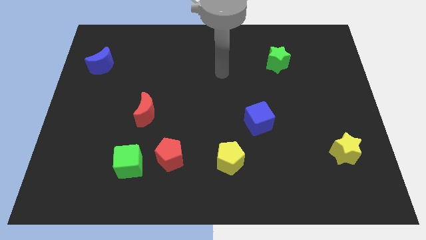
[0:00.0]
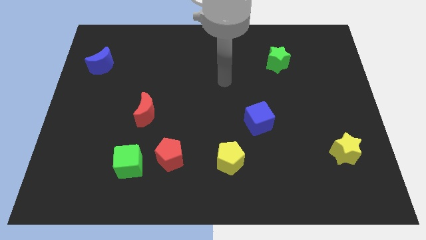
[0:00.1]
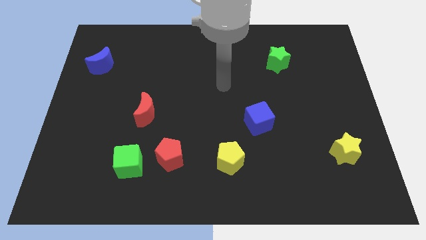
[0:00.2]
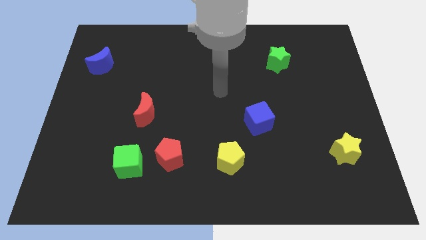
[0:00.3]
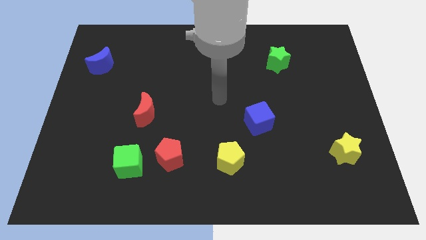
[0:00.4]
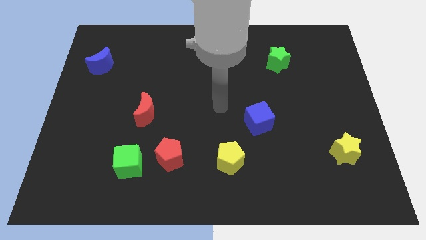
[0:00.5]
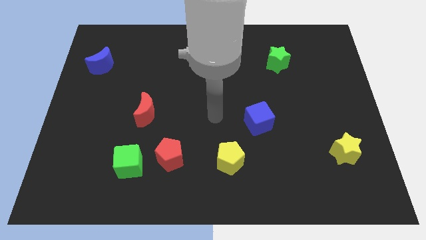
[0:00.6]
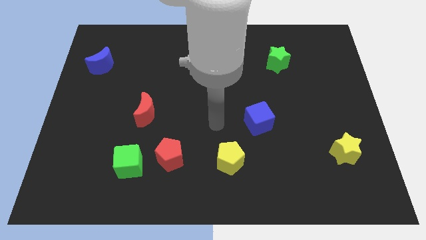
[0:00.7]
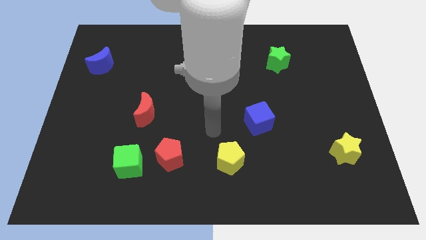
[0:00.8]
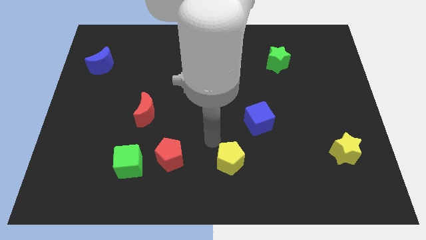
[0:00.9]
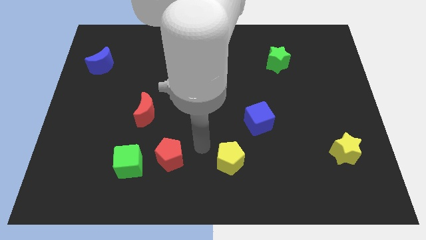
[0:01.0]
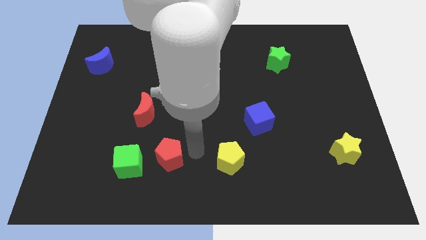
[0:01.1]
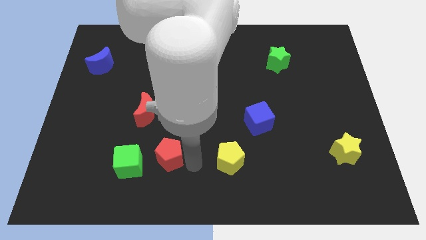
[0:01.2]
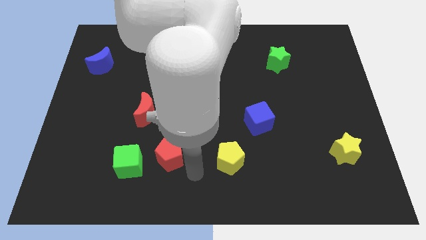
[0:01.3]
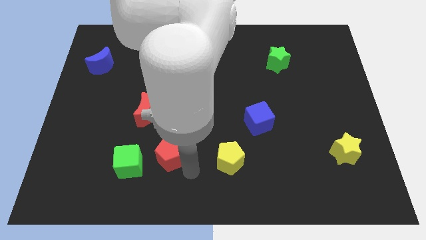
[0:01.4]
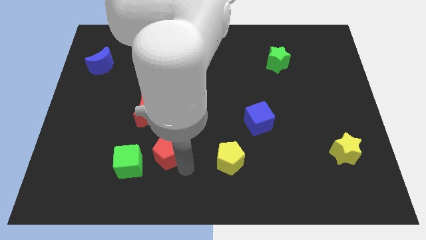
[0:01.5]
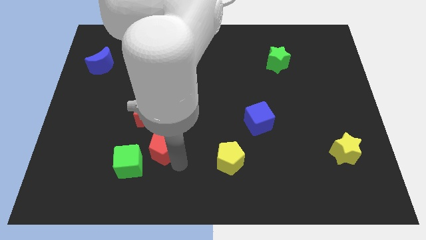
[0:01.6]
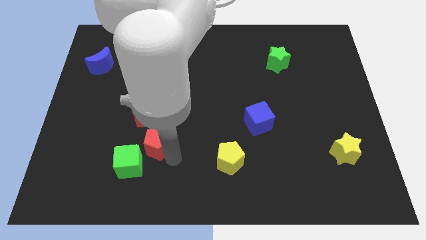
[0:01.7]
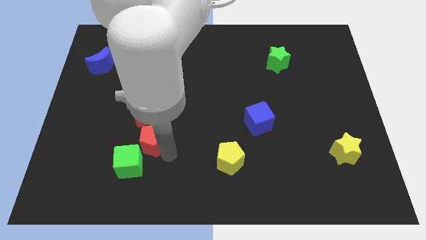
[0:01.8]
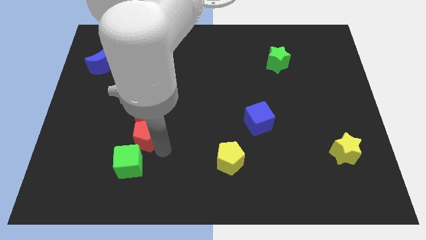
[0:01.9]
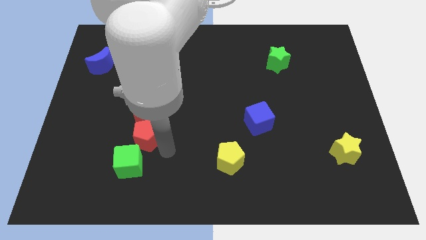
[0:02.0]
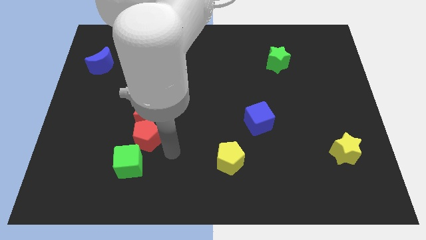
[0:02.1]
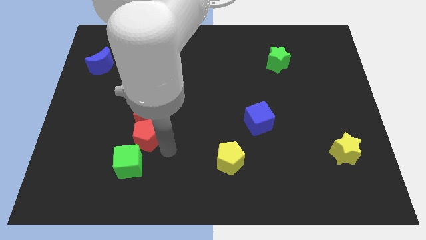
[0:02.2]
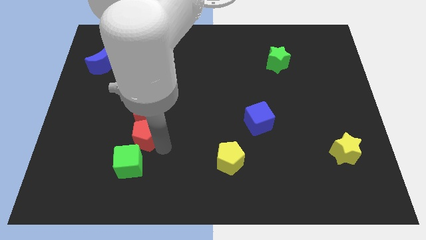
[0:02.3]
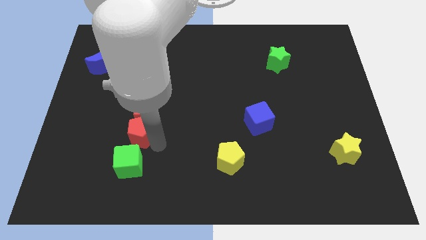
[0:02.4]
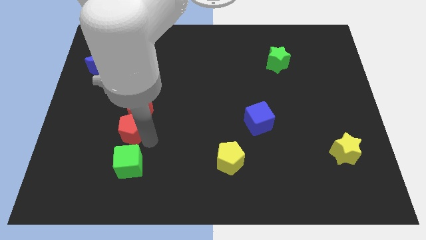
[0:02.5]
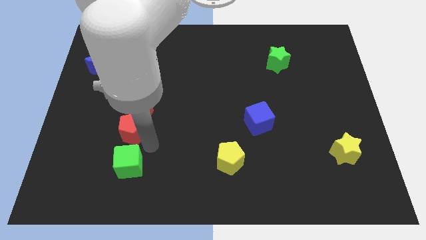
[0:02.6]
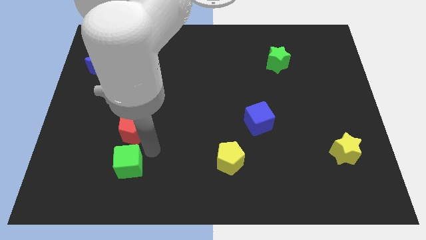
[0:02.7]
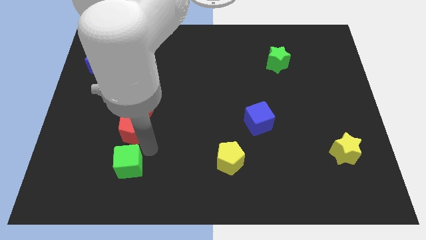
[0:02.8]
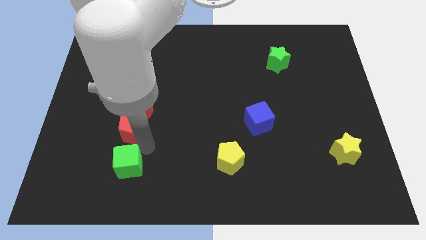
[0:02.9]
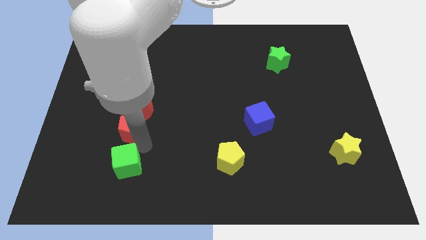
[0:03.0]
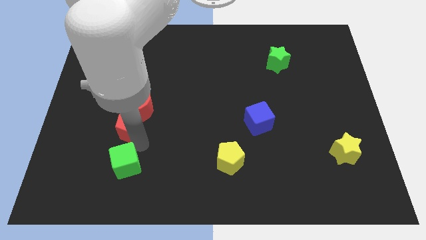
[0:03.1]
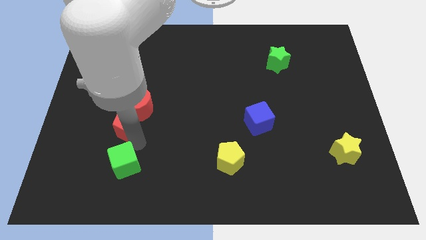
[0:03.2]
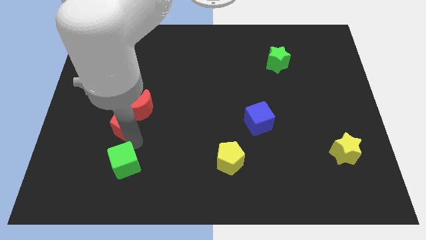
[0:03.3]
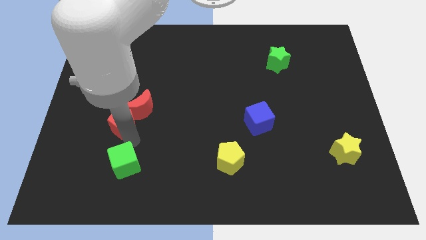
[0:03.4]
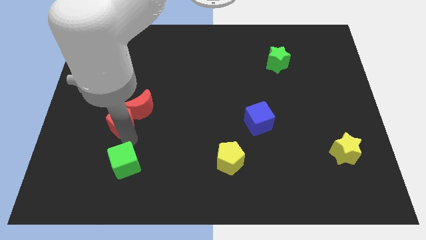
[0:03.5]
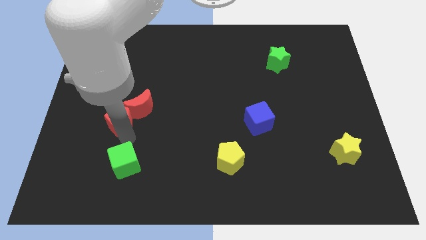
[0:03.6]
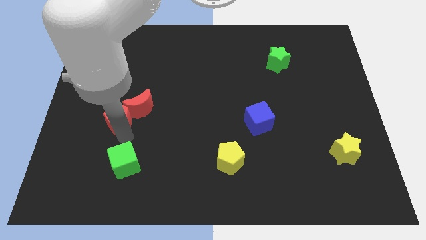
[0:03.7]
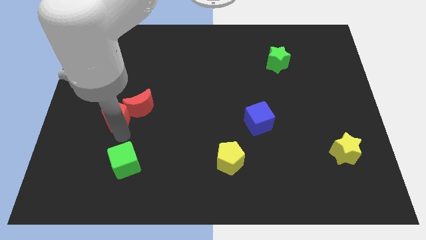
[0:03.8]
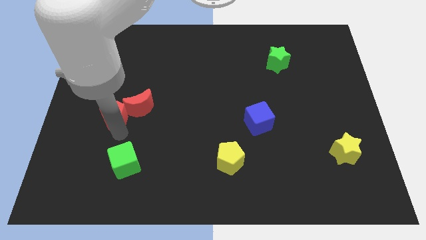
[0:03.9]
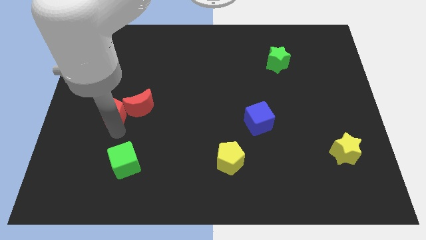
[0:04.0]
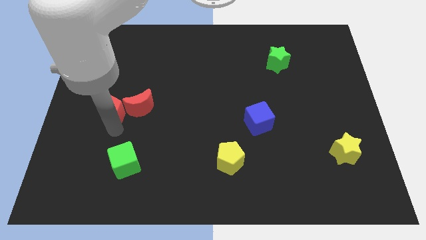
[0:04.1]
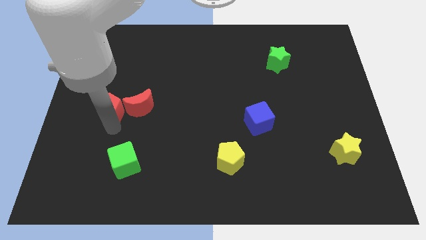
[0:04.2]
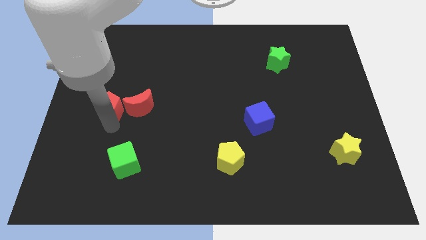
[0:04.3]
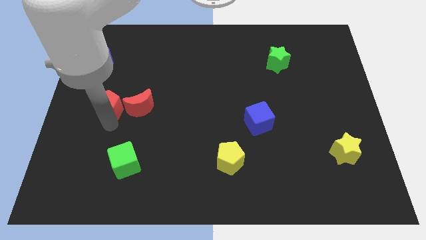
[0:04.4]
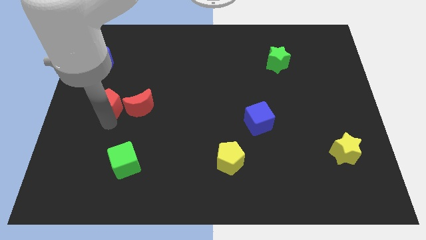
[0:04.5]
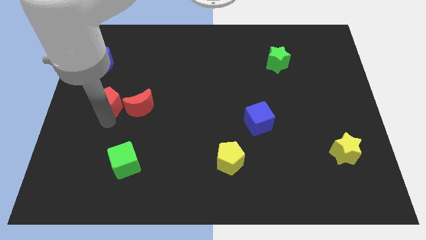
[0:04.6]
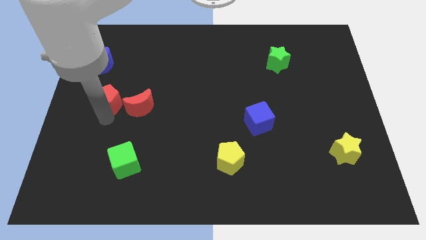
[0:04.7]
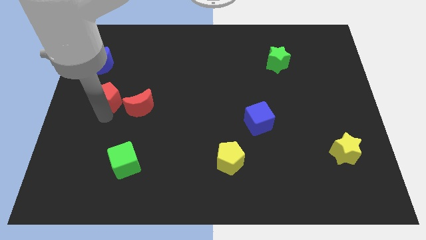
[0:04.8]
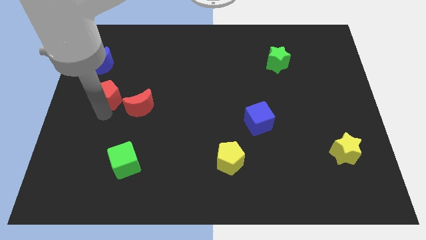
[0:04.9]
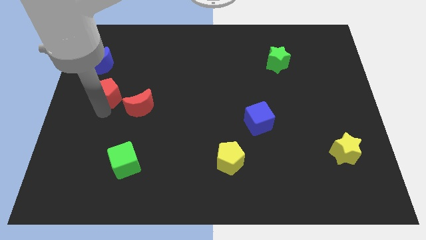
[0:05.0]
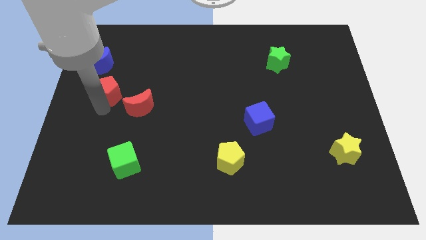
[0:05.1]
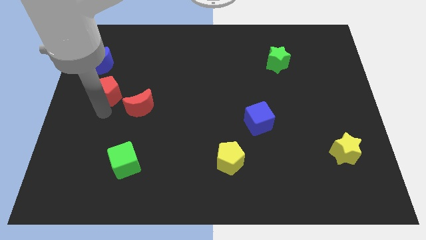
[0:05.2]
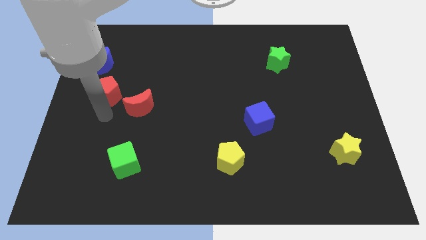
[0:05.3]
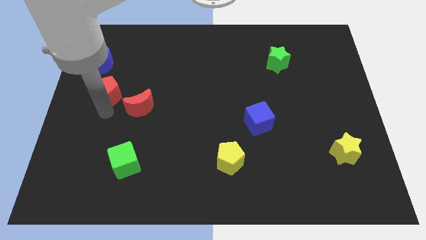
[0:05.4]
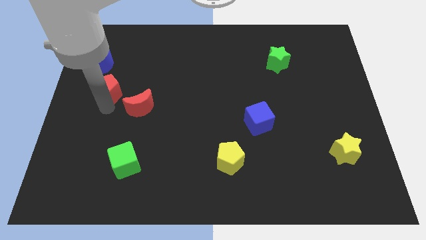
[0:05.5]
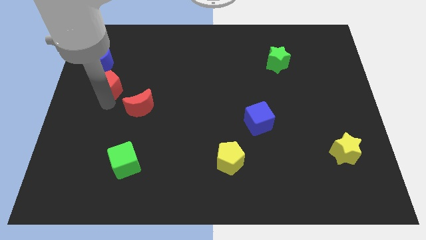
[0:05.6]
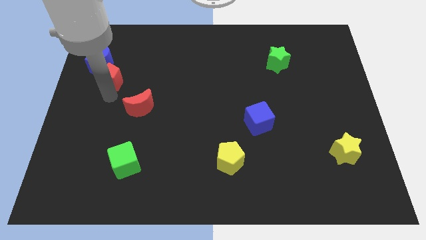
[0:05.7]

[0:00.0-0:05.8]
slide the red pentagon next to the blue moon

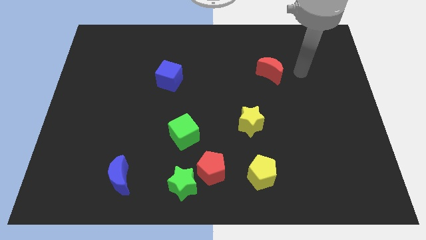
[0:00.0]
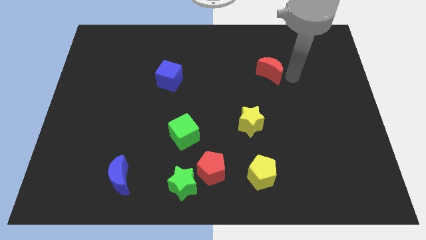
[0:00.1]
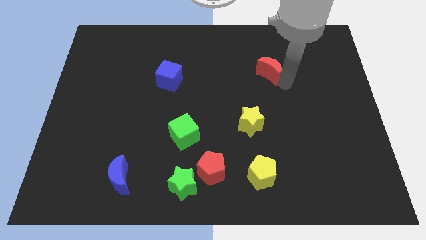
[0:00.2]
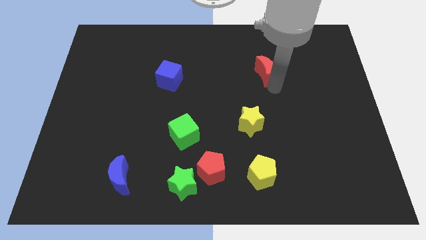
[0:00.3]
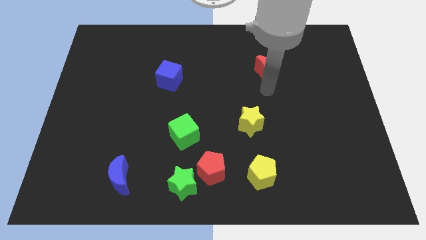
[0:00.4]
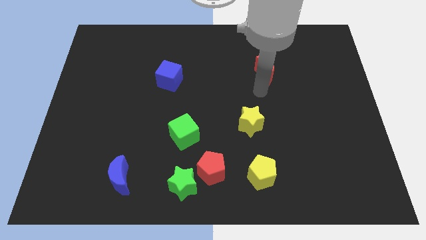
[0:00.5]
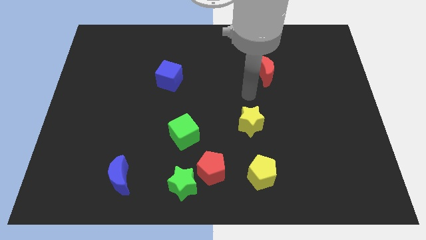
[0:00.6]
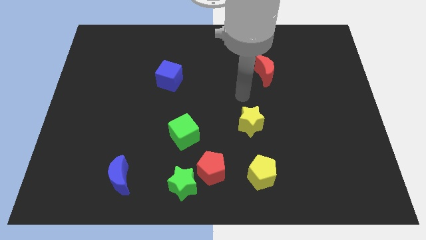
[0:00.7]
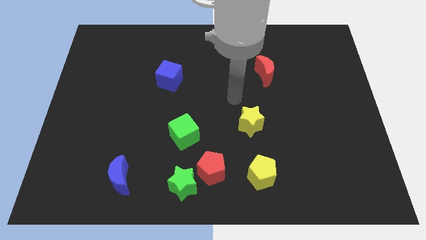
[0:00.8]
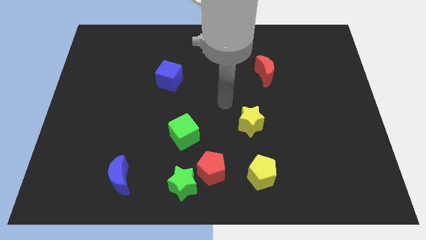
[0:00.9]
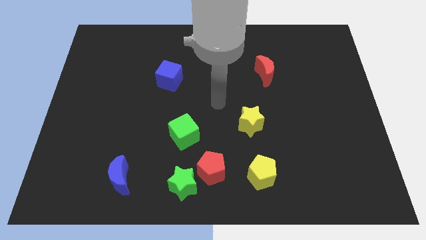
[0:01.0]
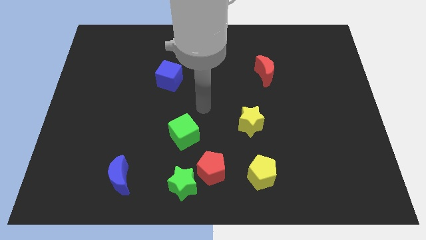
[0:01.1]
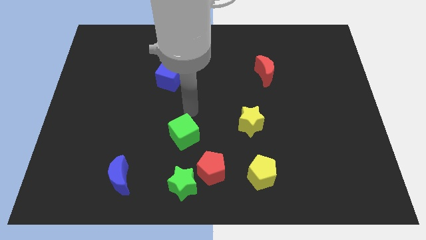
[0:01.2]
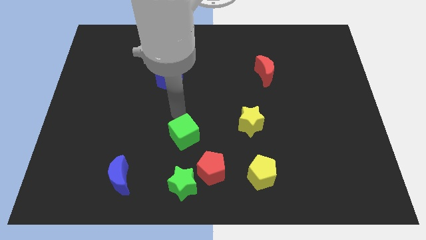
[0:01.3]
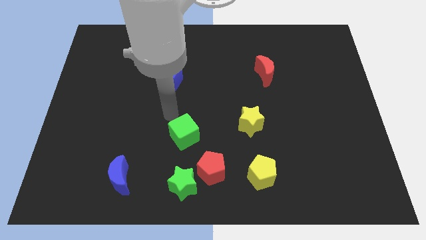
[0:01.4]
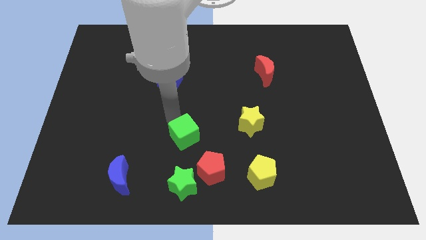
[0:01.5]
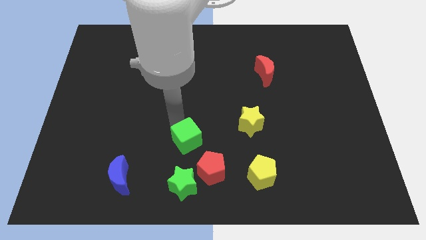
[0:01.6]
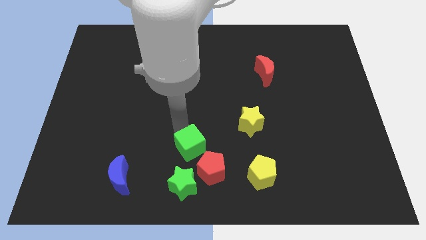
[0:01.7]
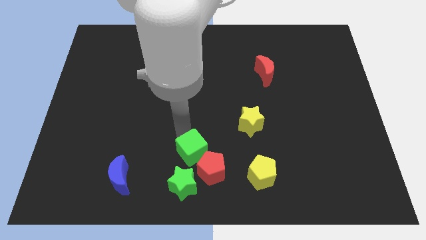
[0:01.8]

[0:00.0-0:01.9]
move the green cube next to the red pentagon
